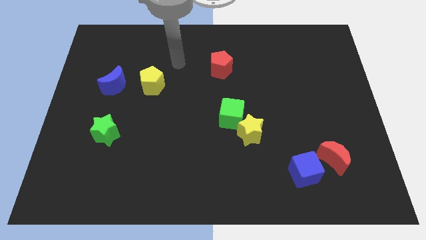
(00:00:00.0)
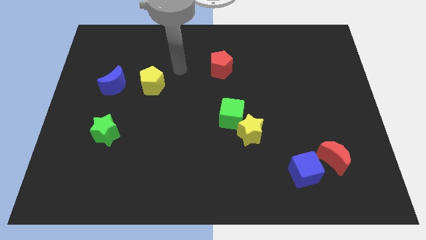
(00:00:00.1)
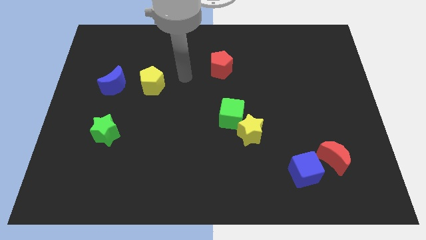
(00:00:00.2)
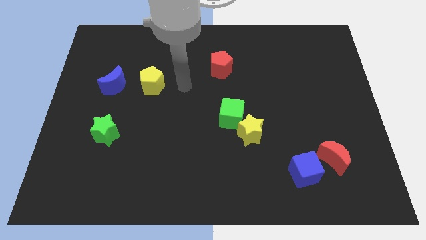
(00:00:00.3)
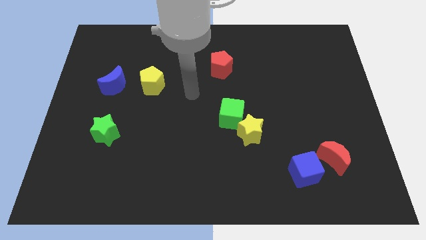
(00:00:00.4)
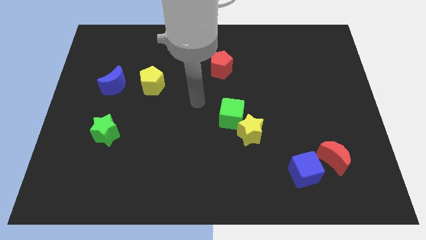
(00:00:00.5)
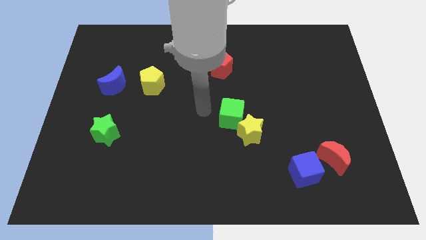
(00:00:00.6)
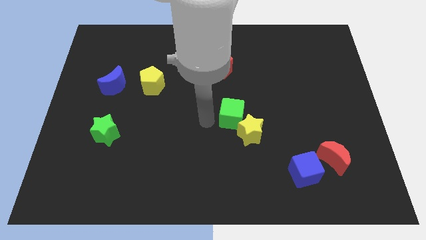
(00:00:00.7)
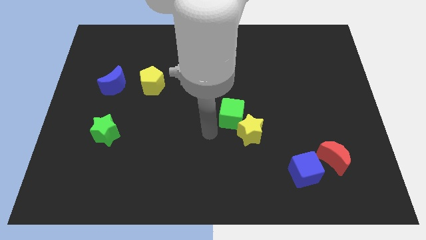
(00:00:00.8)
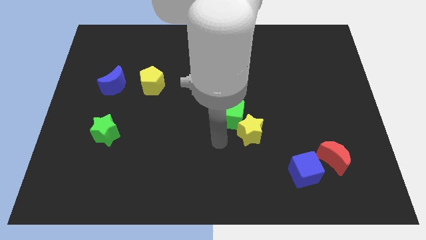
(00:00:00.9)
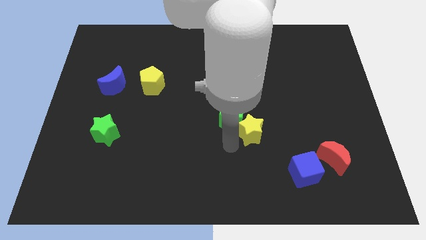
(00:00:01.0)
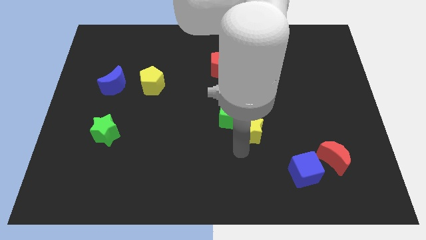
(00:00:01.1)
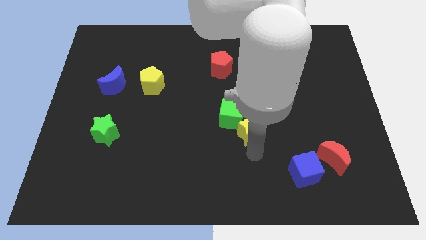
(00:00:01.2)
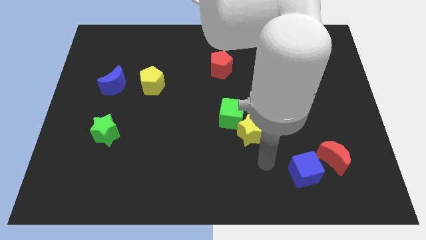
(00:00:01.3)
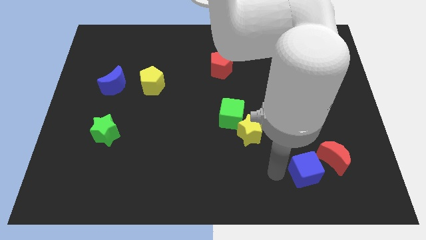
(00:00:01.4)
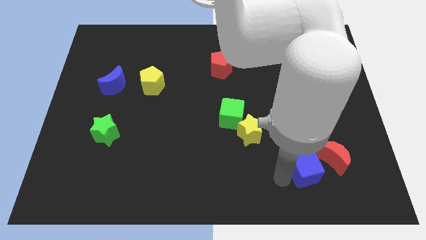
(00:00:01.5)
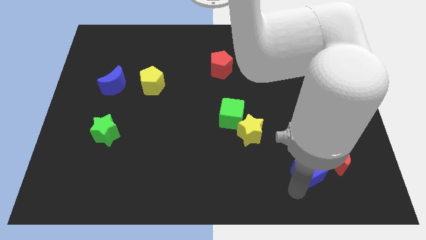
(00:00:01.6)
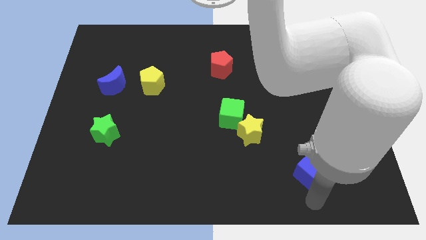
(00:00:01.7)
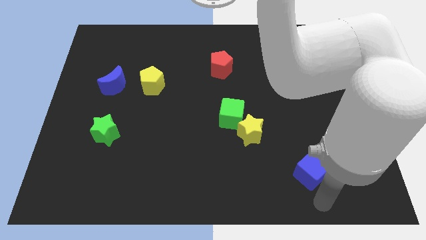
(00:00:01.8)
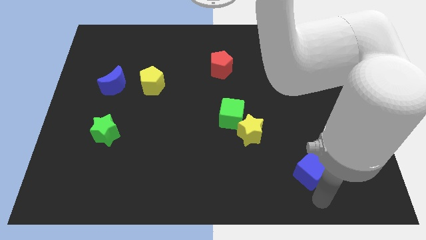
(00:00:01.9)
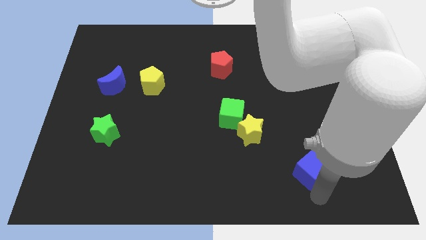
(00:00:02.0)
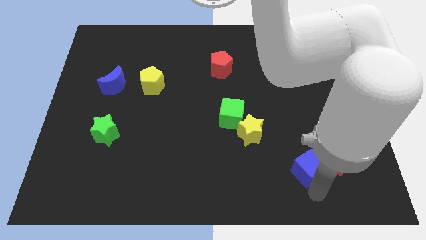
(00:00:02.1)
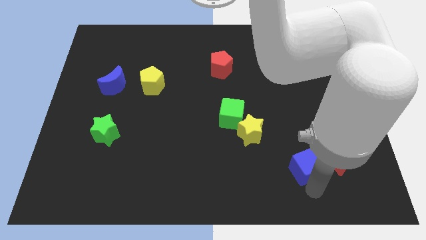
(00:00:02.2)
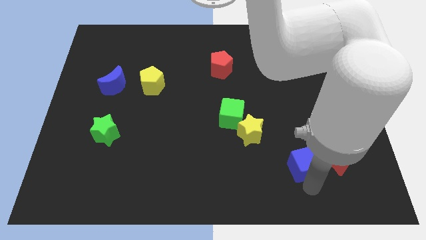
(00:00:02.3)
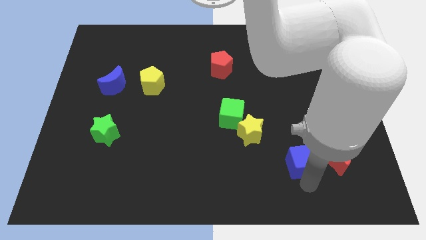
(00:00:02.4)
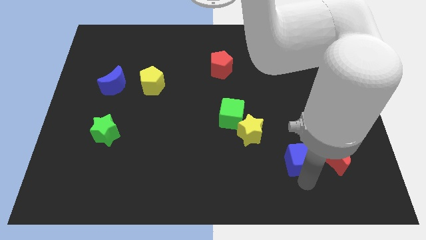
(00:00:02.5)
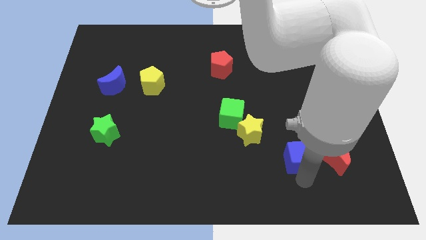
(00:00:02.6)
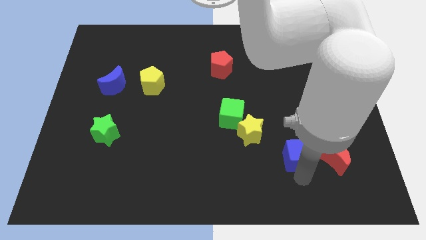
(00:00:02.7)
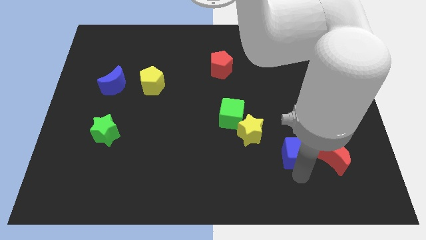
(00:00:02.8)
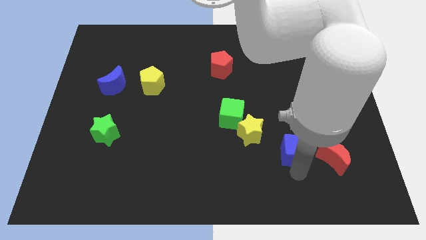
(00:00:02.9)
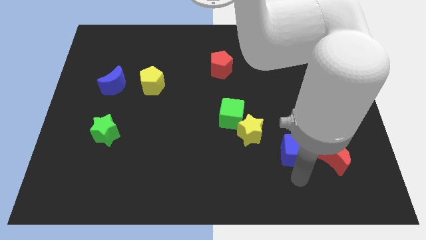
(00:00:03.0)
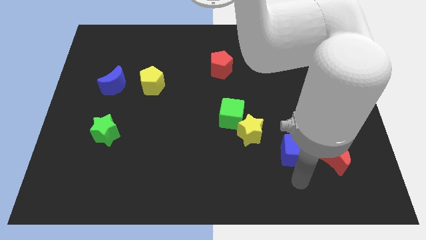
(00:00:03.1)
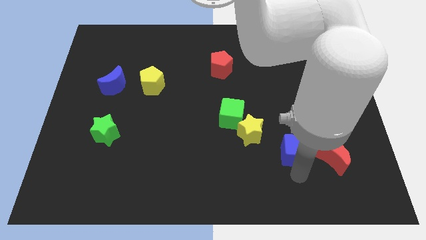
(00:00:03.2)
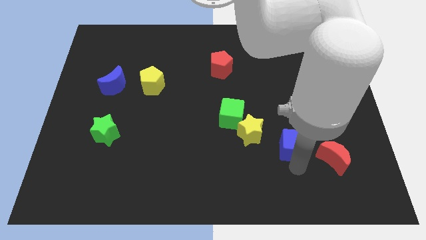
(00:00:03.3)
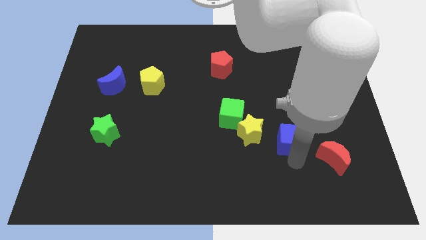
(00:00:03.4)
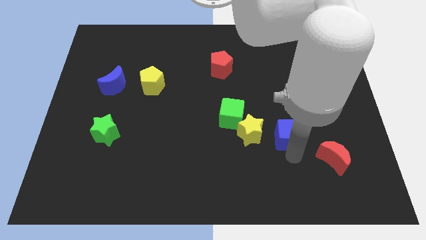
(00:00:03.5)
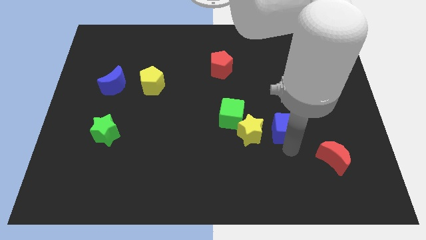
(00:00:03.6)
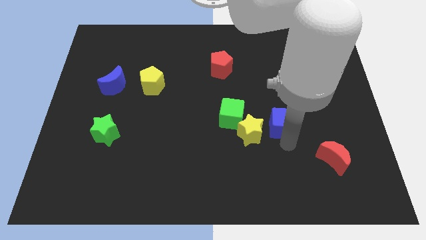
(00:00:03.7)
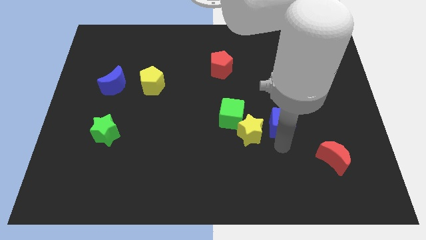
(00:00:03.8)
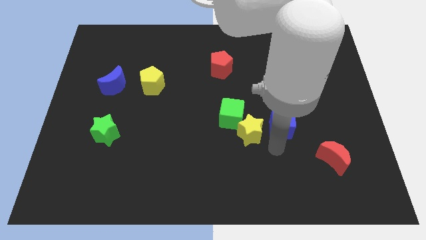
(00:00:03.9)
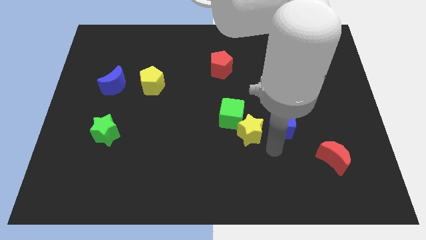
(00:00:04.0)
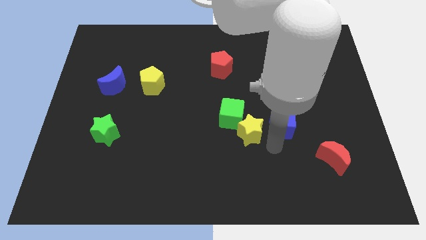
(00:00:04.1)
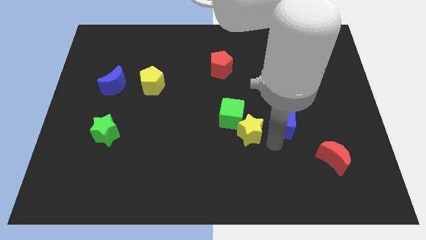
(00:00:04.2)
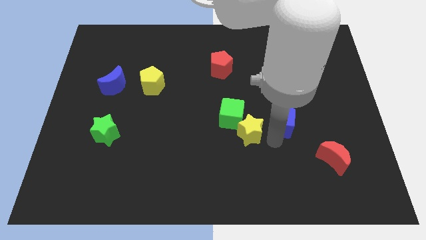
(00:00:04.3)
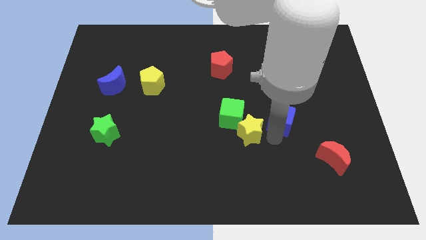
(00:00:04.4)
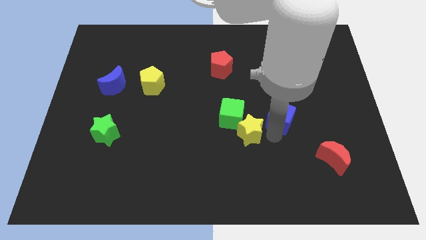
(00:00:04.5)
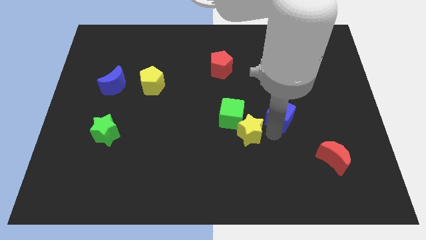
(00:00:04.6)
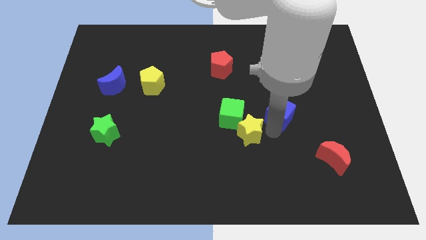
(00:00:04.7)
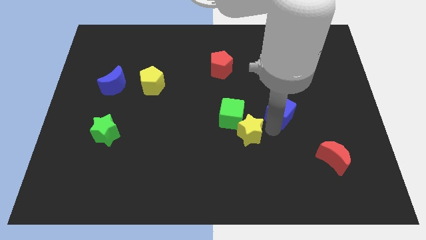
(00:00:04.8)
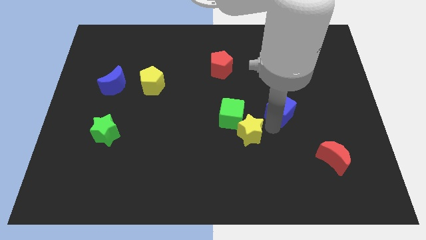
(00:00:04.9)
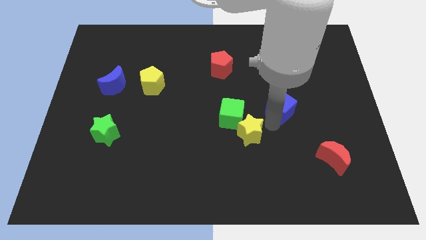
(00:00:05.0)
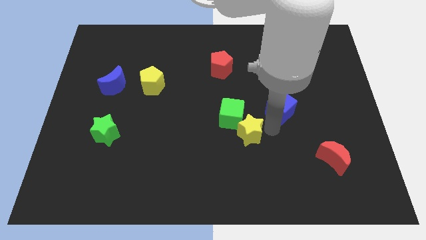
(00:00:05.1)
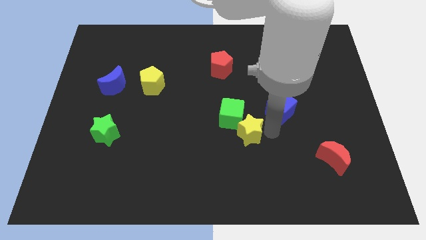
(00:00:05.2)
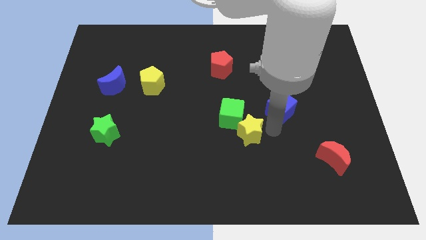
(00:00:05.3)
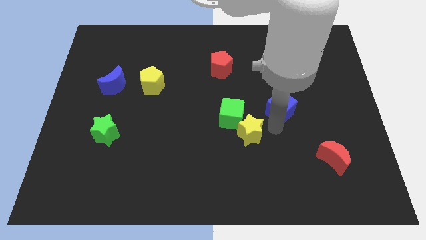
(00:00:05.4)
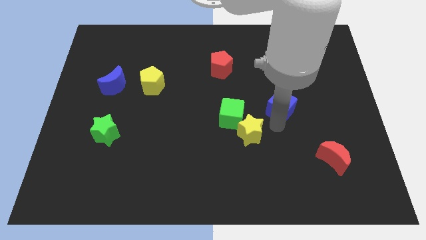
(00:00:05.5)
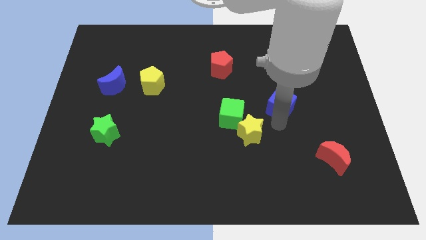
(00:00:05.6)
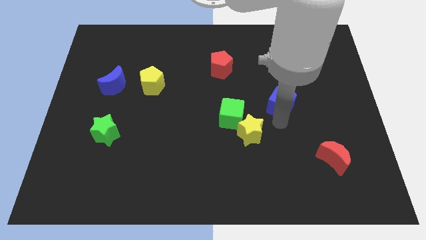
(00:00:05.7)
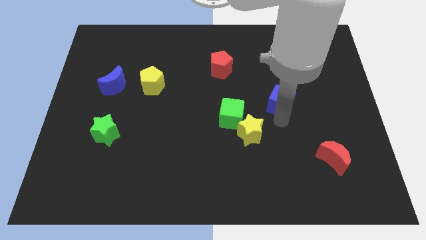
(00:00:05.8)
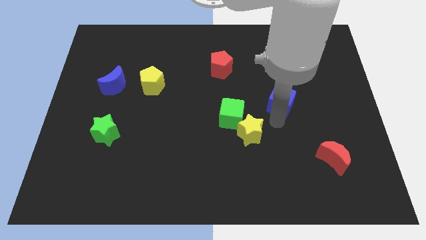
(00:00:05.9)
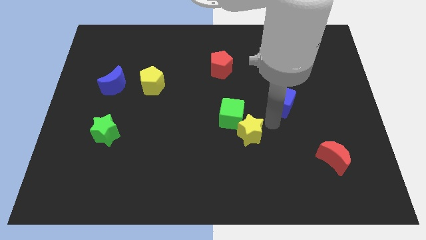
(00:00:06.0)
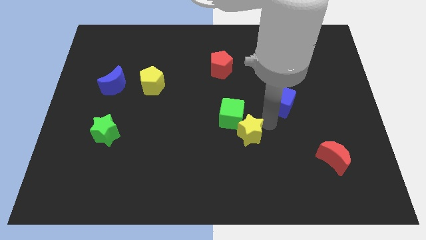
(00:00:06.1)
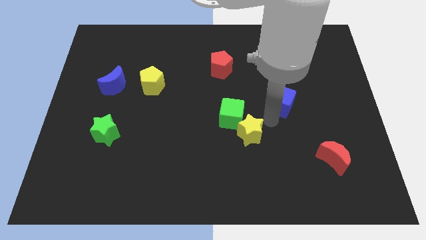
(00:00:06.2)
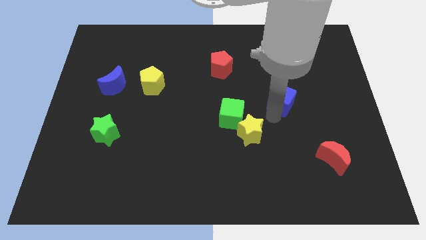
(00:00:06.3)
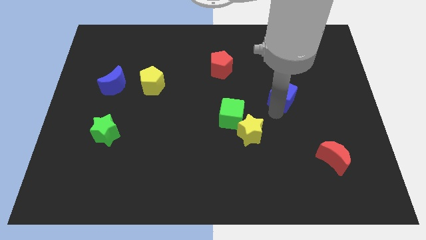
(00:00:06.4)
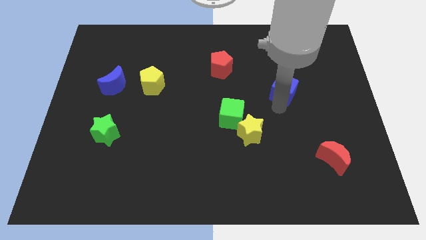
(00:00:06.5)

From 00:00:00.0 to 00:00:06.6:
push the blue cube upwards

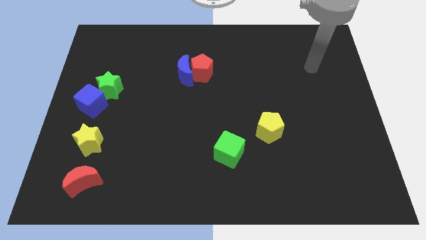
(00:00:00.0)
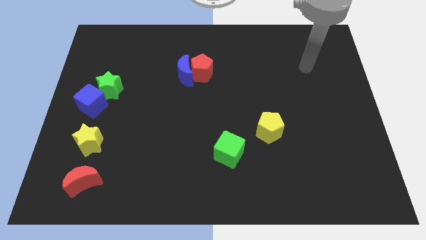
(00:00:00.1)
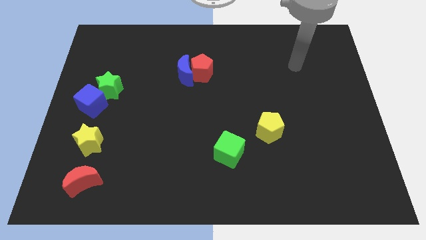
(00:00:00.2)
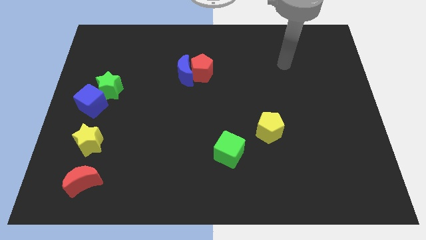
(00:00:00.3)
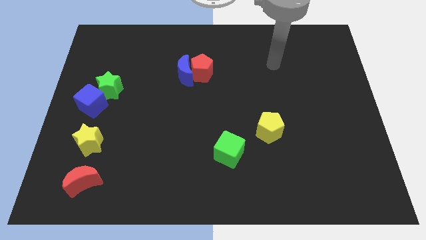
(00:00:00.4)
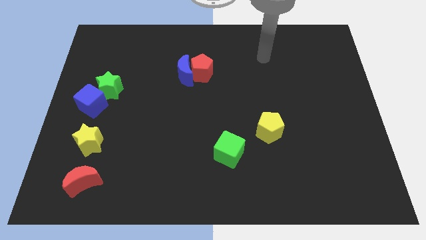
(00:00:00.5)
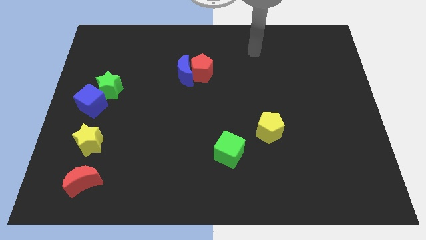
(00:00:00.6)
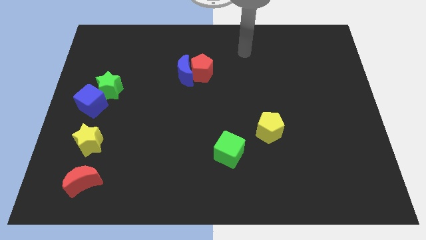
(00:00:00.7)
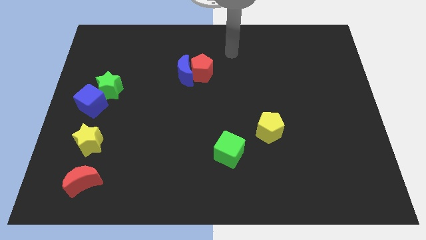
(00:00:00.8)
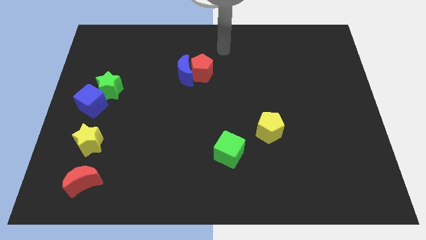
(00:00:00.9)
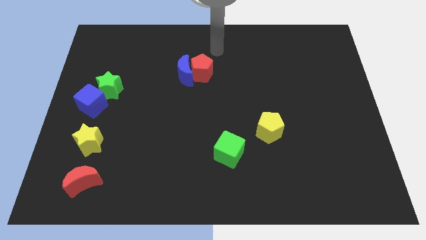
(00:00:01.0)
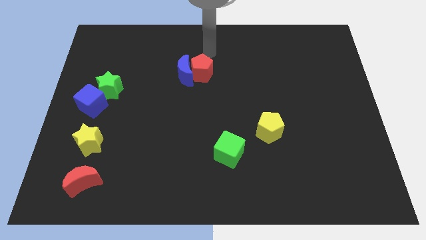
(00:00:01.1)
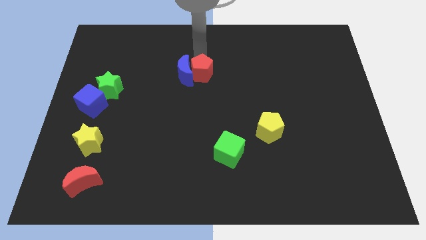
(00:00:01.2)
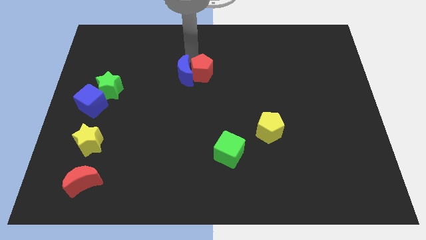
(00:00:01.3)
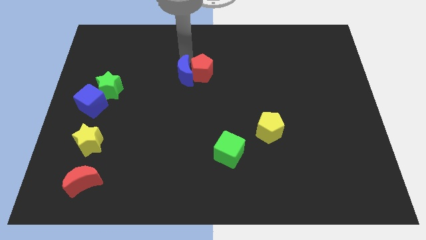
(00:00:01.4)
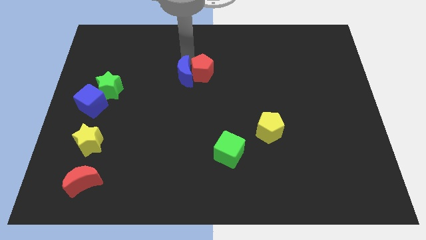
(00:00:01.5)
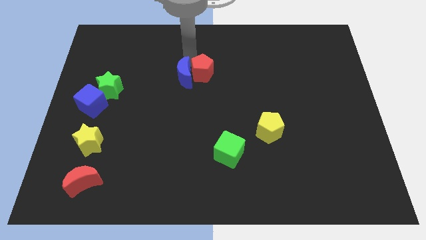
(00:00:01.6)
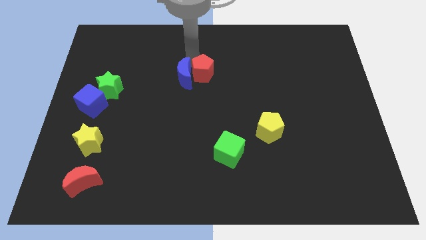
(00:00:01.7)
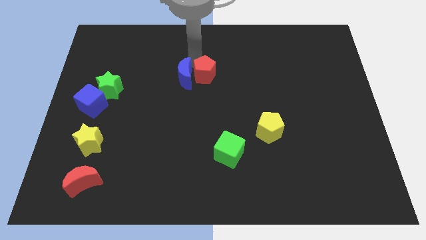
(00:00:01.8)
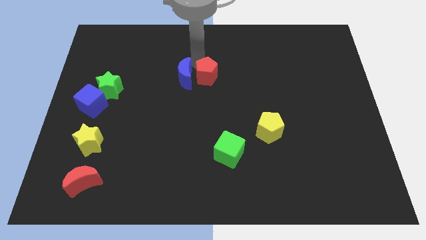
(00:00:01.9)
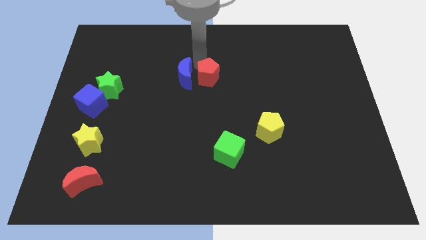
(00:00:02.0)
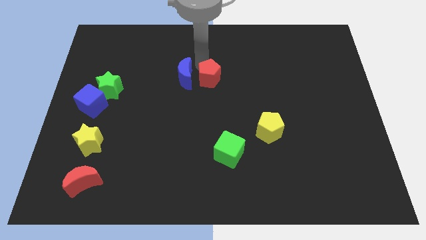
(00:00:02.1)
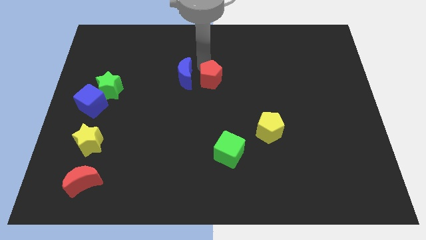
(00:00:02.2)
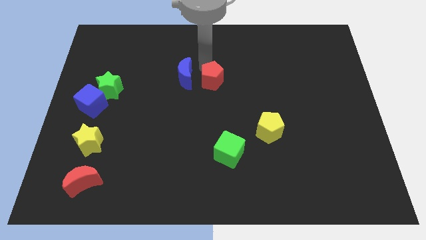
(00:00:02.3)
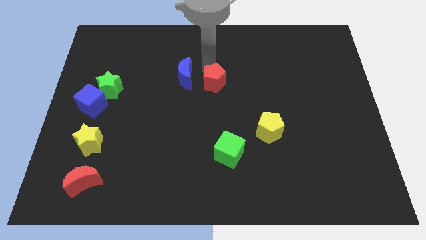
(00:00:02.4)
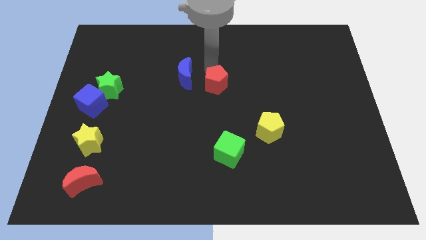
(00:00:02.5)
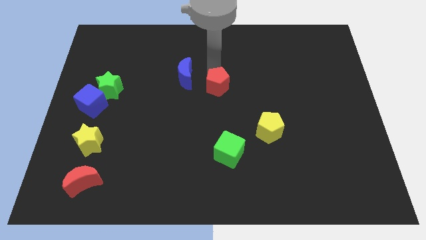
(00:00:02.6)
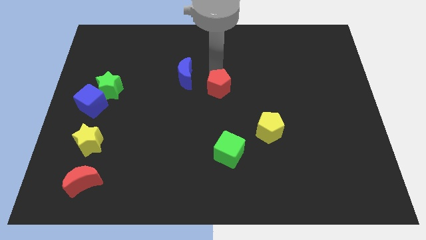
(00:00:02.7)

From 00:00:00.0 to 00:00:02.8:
slide the red pentagon somewhat downwards and then right
